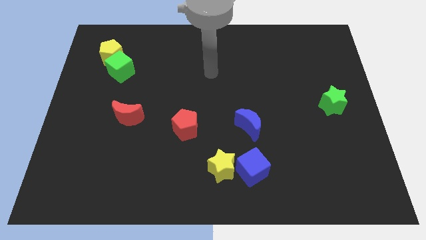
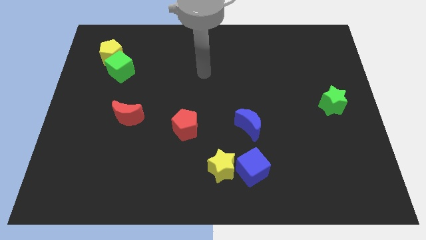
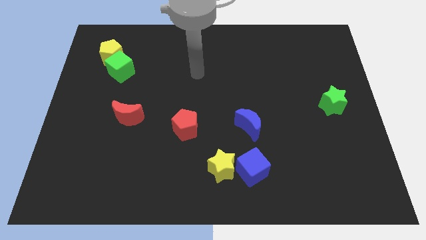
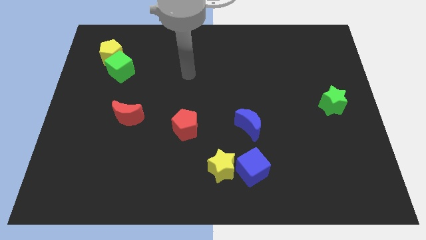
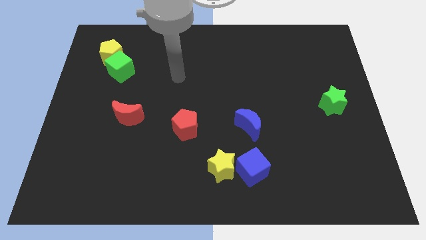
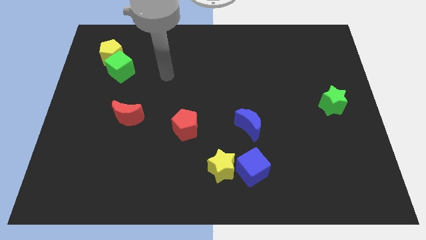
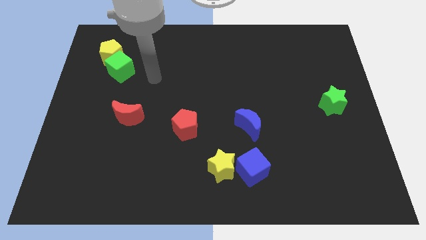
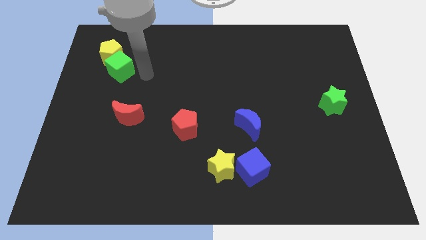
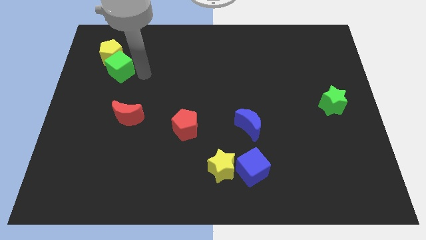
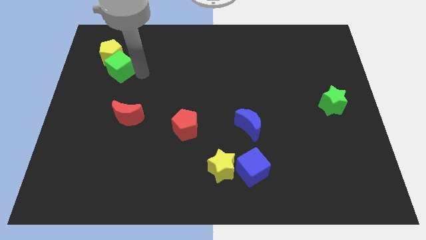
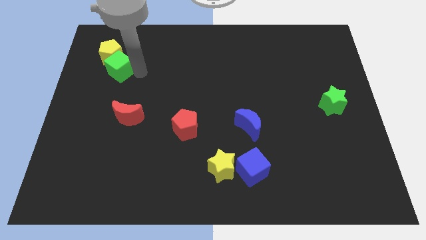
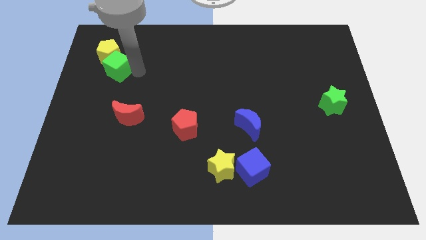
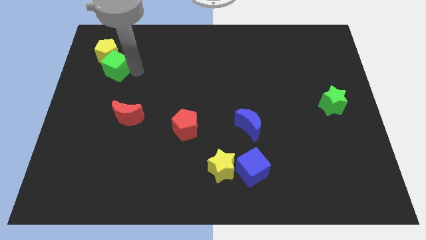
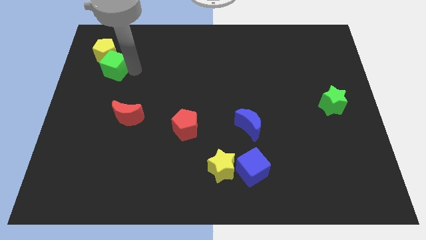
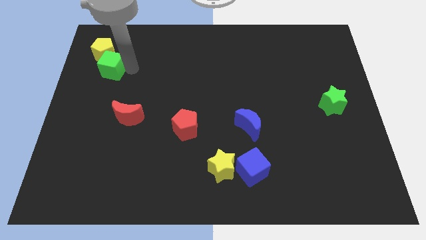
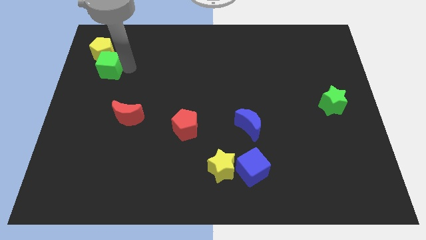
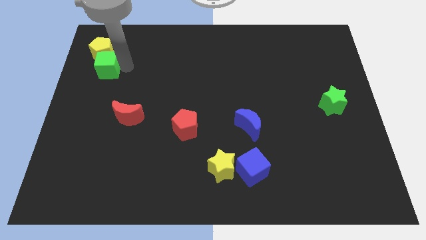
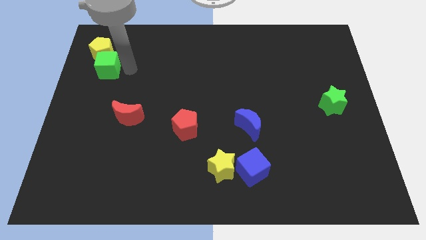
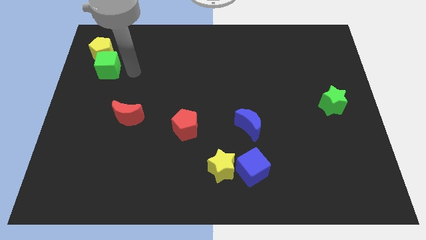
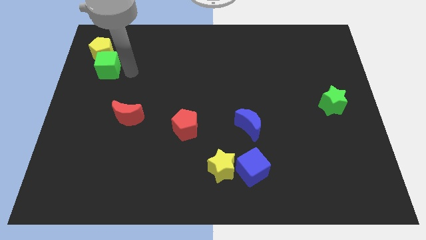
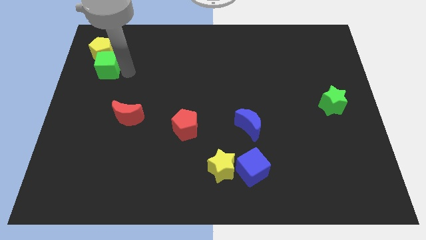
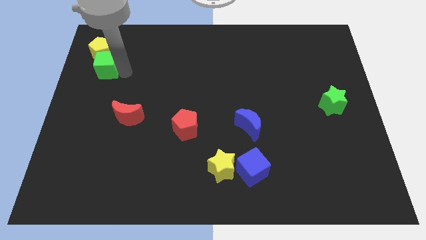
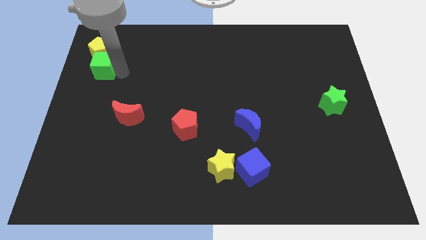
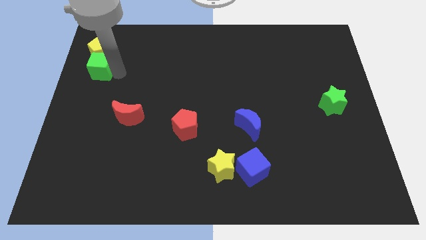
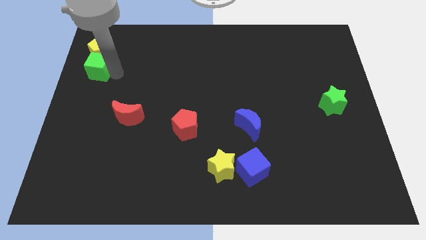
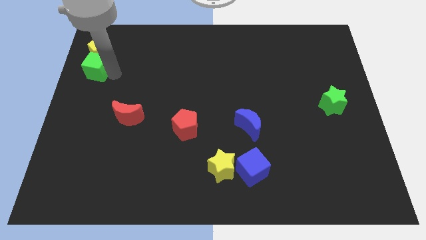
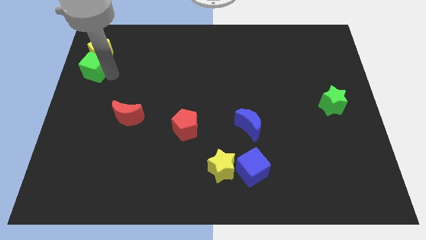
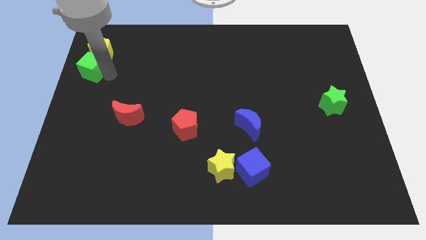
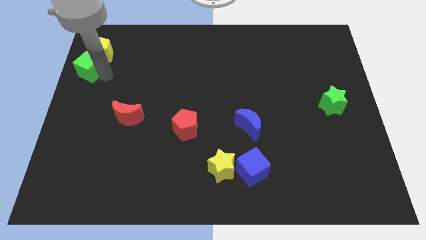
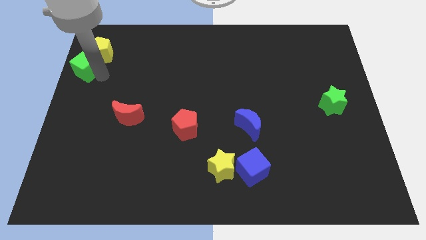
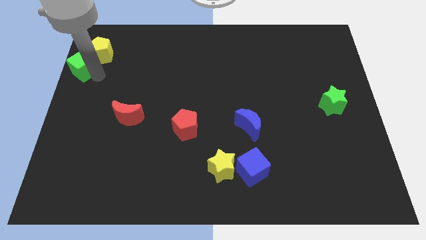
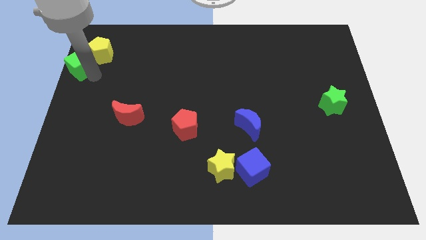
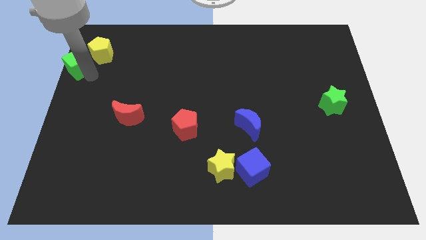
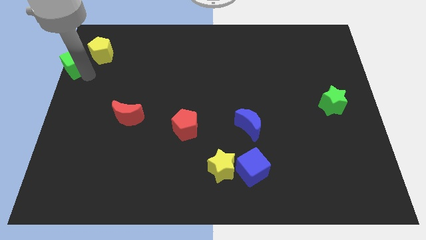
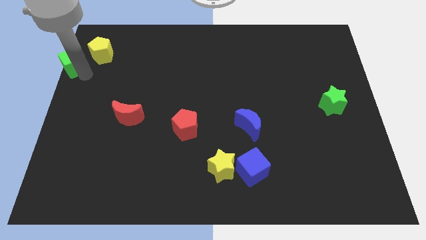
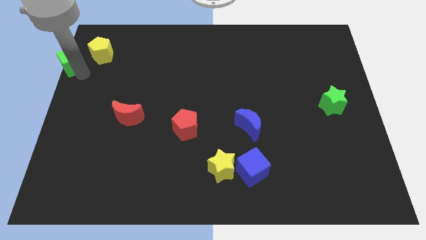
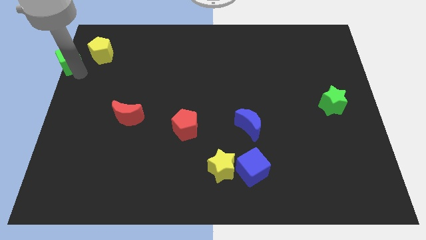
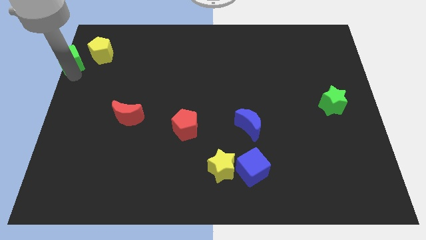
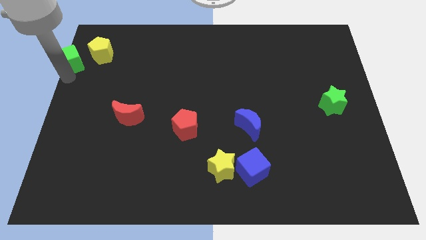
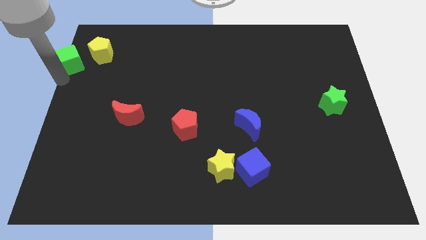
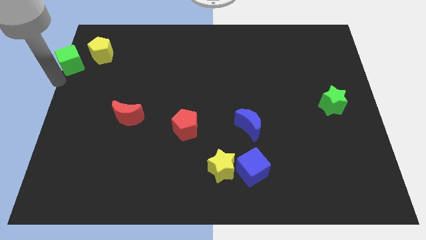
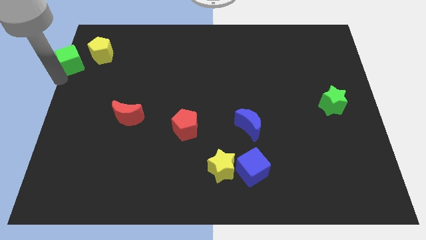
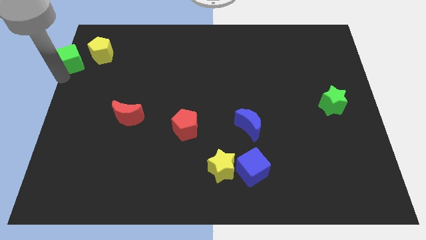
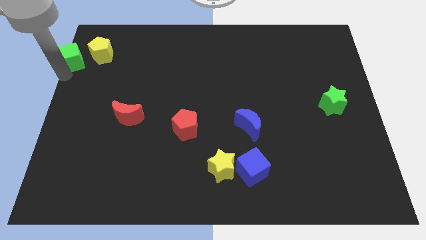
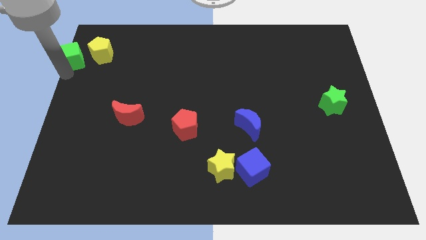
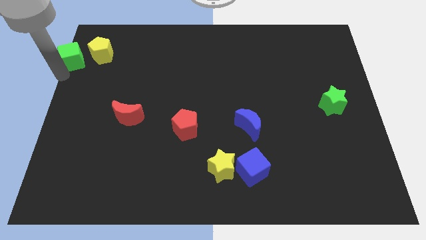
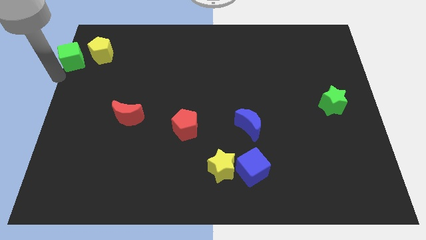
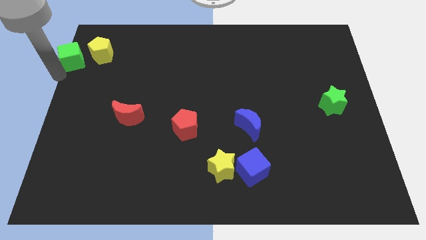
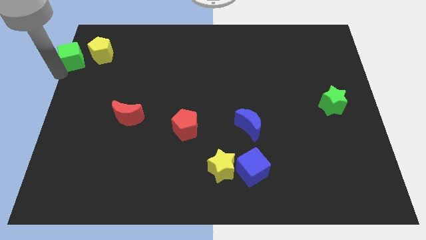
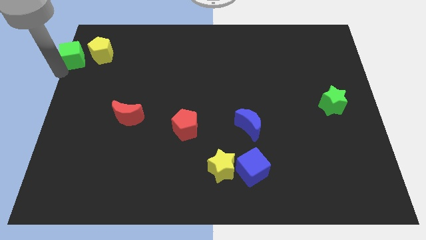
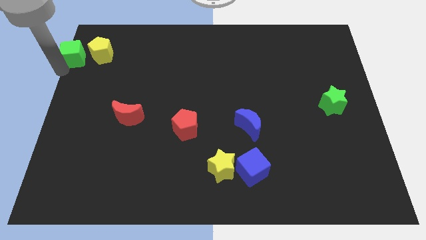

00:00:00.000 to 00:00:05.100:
put the green cube to the top left

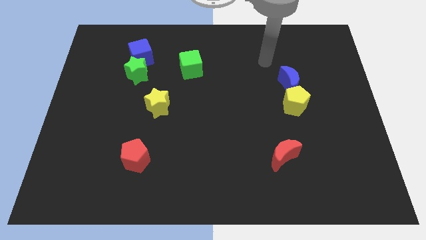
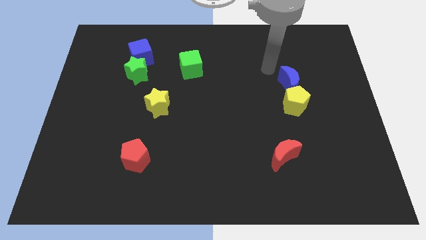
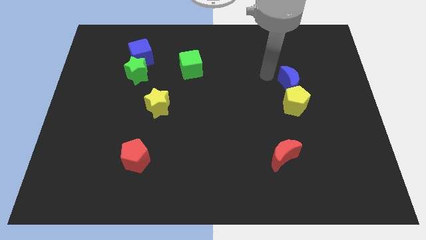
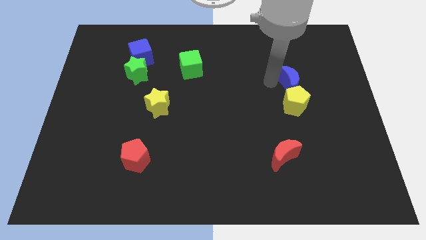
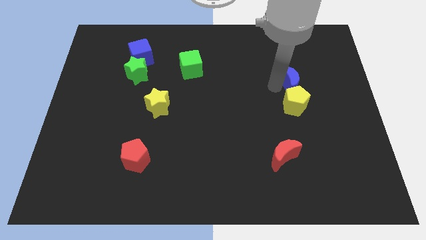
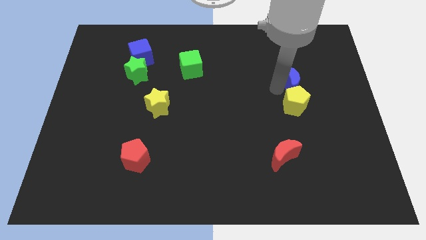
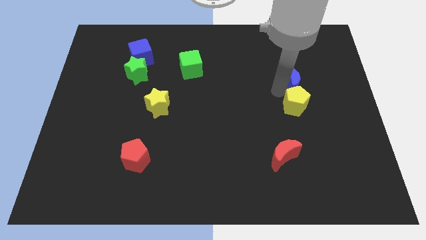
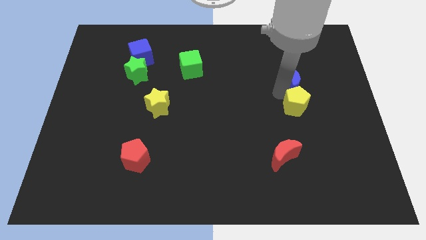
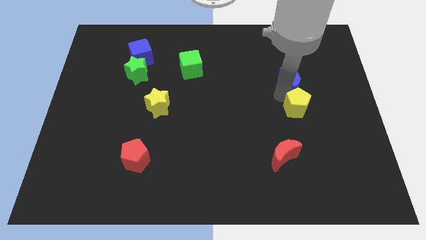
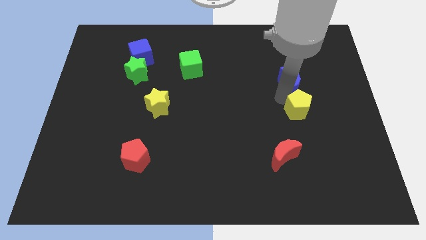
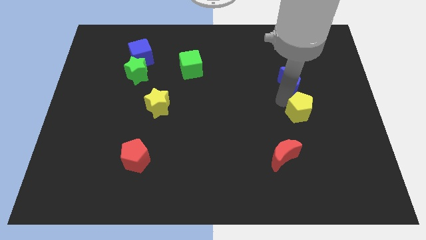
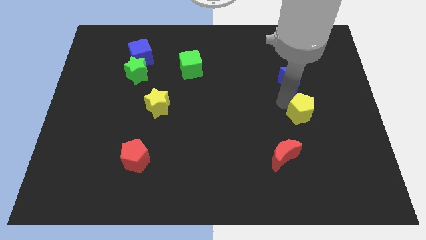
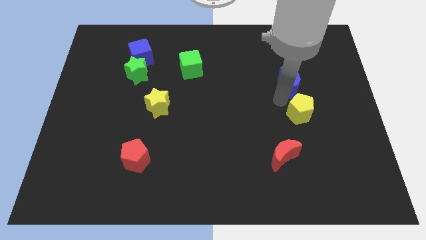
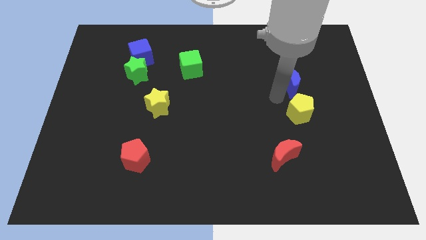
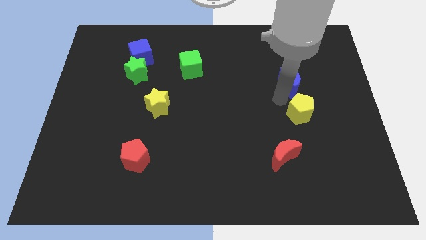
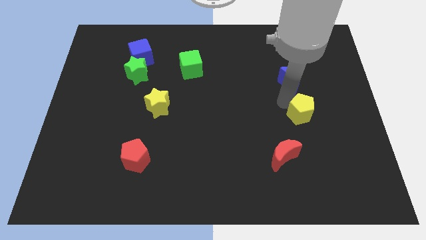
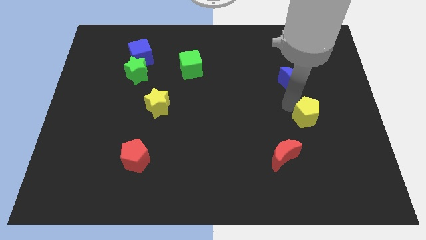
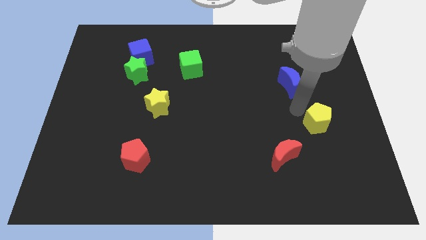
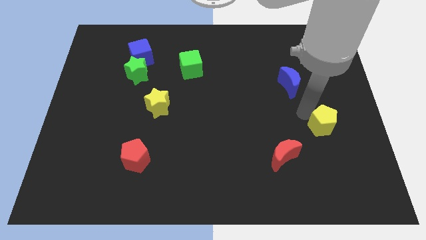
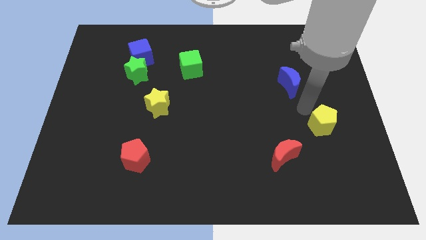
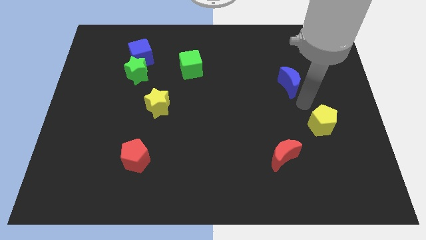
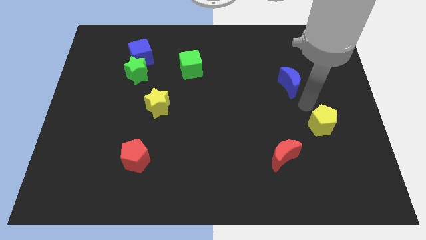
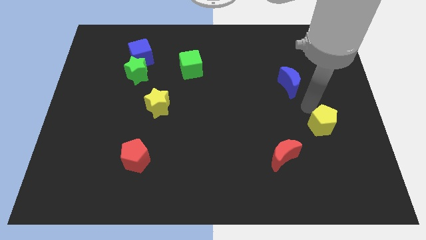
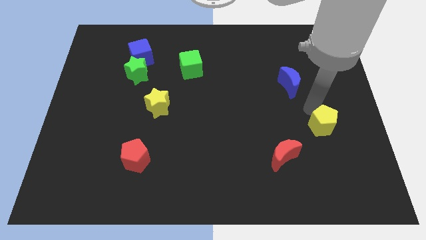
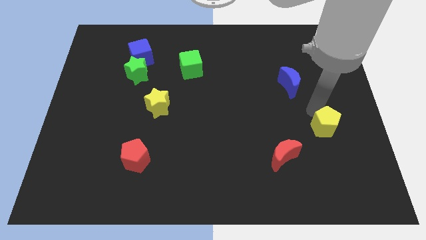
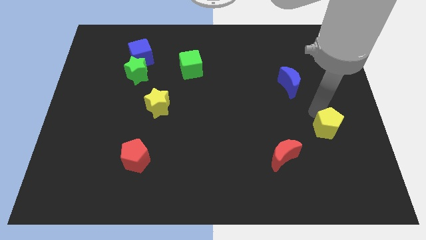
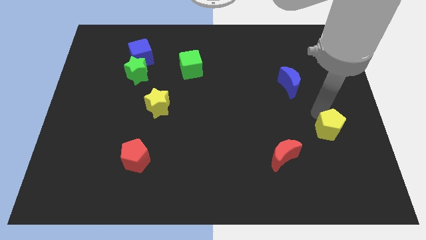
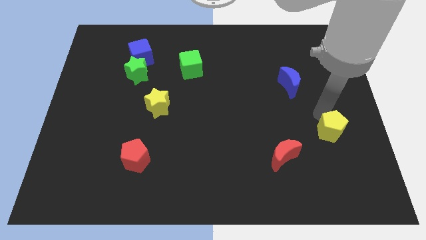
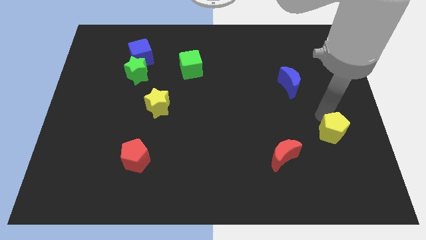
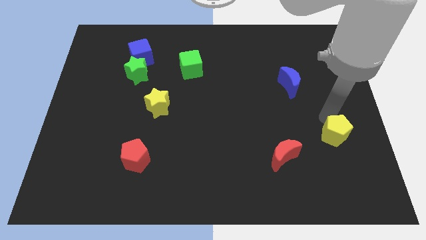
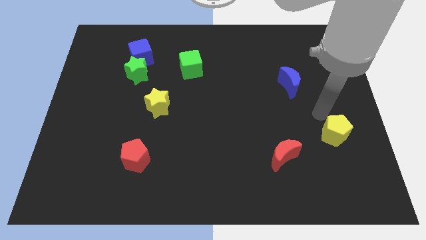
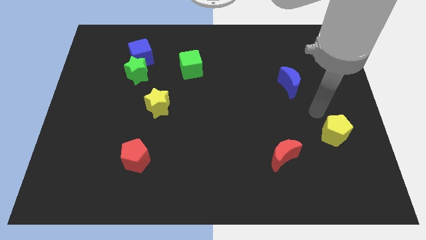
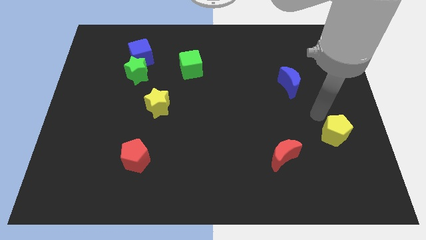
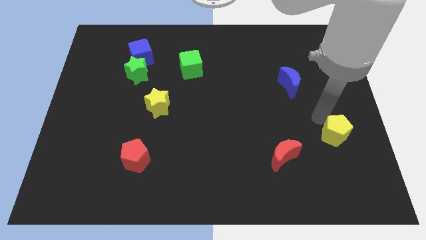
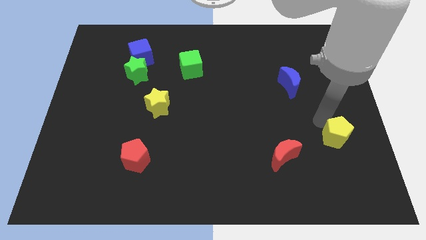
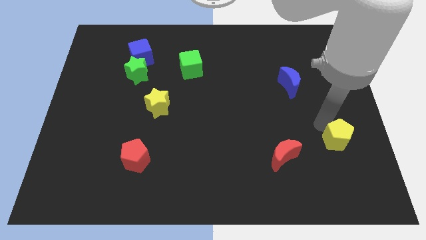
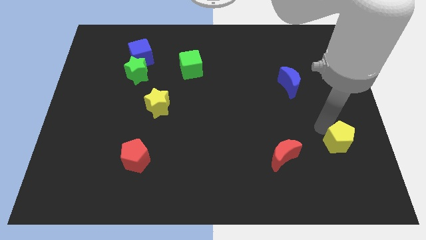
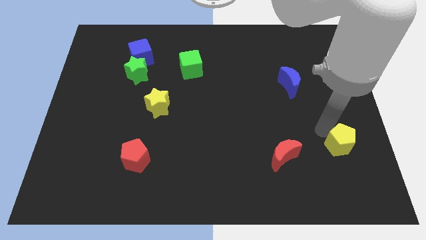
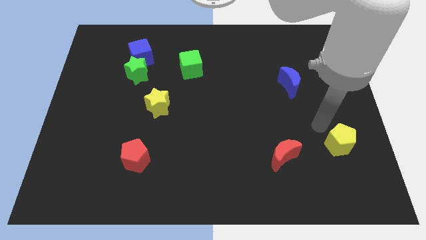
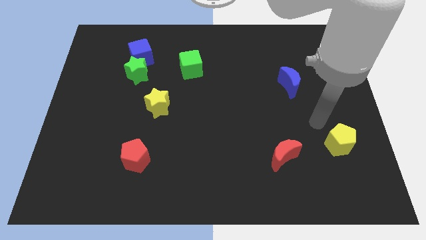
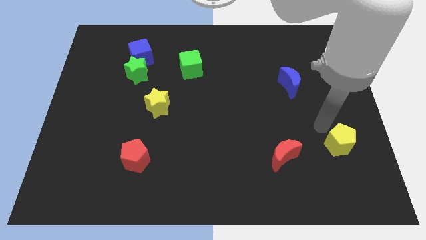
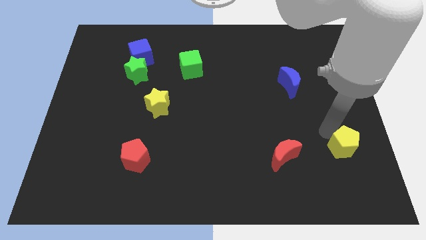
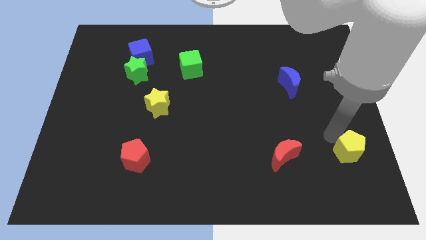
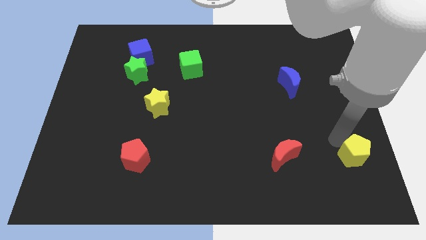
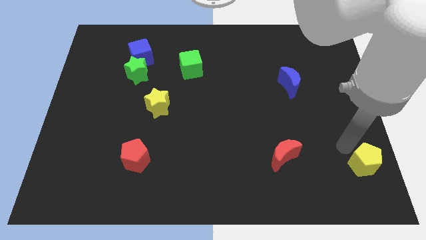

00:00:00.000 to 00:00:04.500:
move the yellow pentagon to the lower right corner
